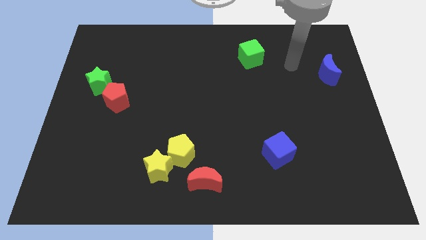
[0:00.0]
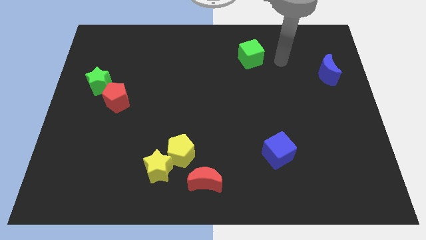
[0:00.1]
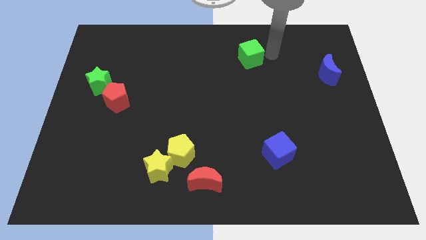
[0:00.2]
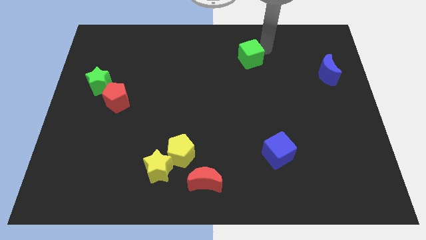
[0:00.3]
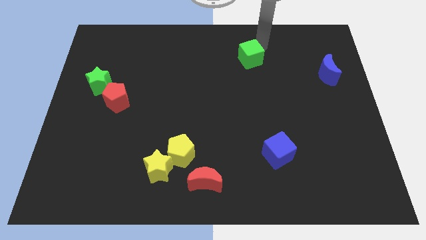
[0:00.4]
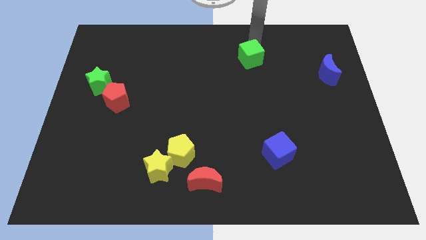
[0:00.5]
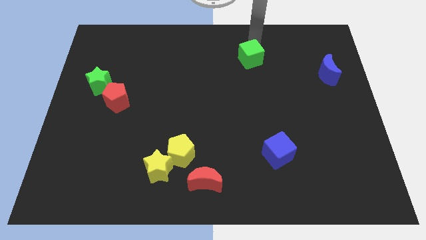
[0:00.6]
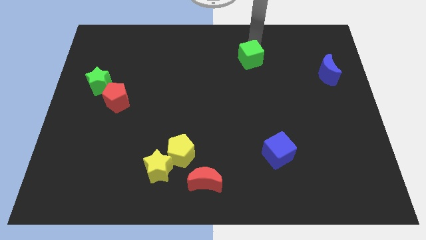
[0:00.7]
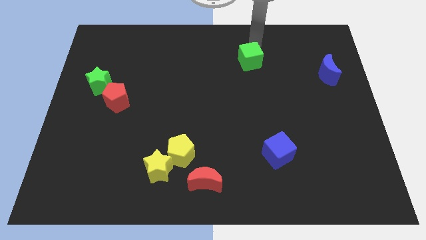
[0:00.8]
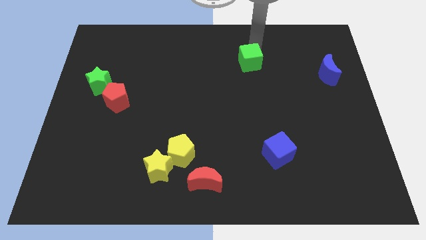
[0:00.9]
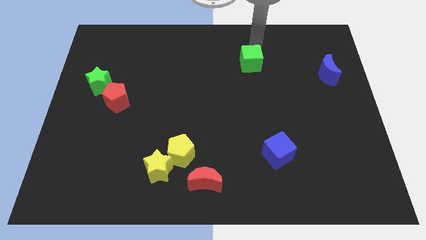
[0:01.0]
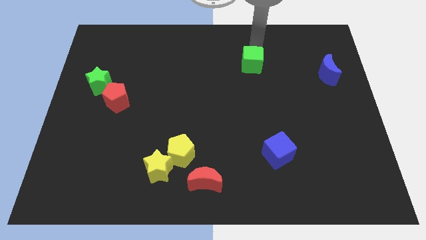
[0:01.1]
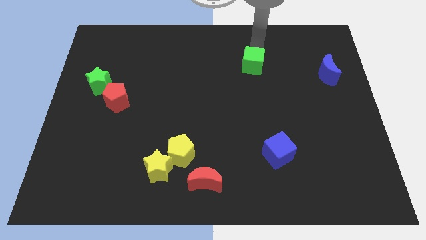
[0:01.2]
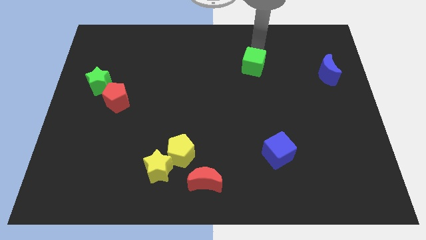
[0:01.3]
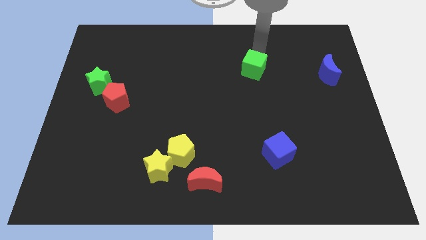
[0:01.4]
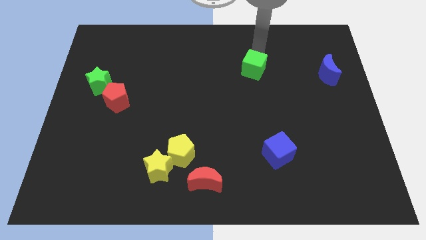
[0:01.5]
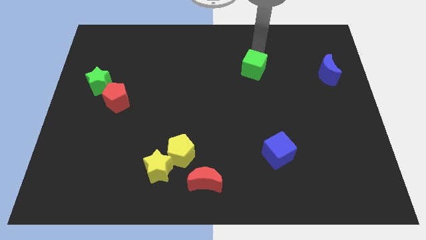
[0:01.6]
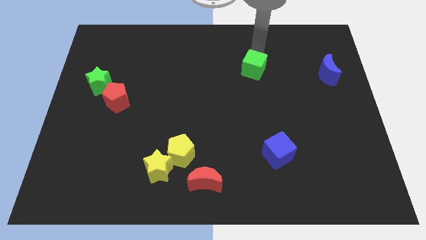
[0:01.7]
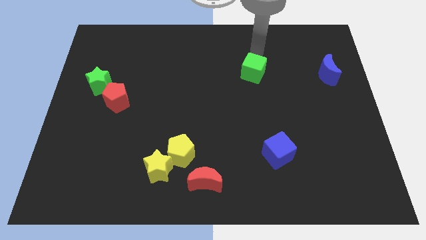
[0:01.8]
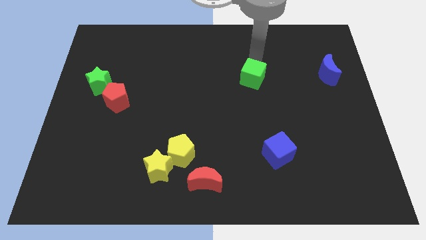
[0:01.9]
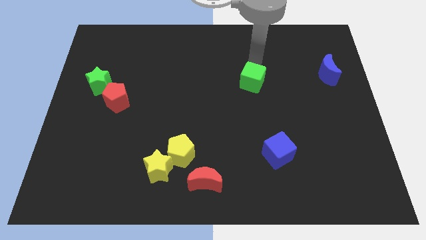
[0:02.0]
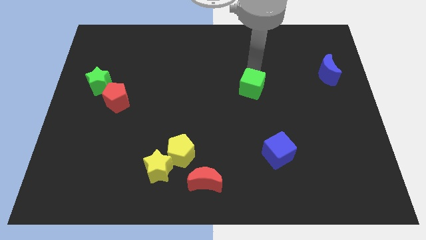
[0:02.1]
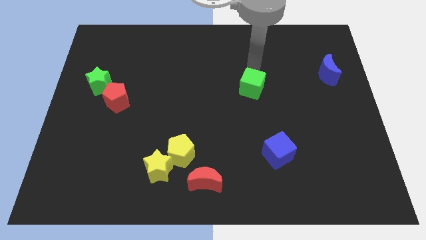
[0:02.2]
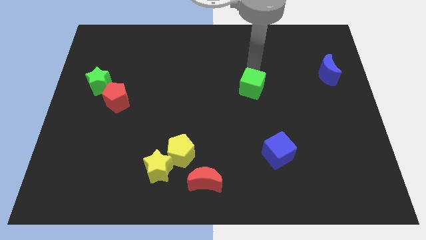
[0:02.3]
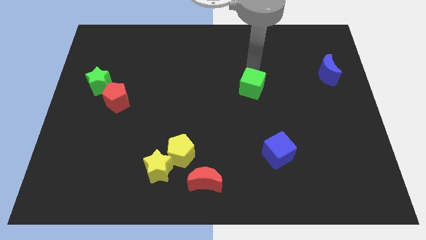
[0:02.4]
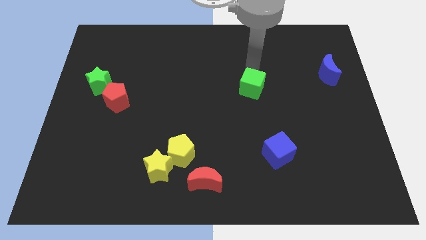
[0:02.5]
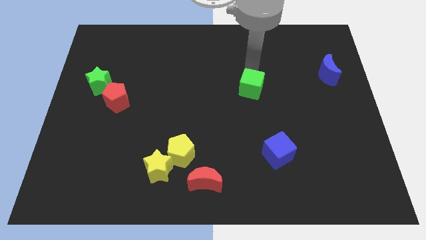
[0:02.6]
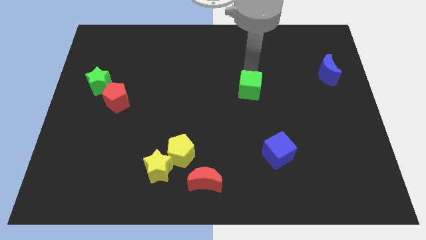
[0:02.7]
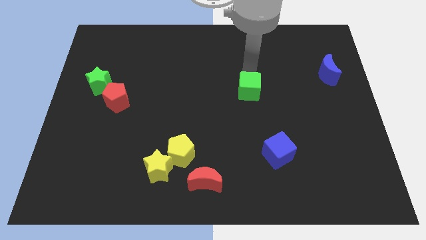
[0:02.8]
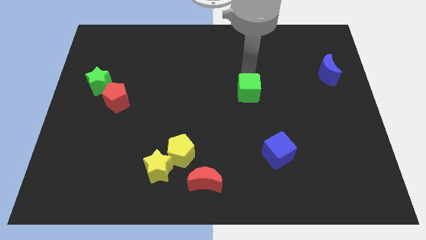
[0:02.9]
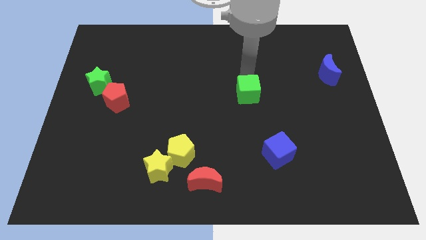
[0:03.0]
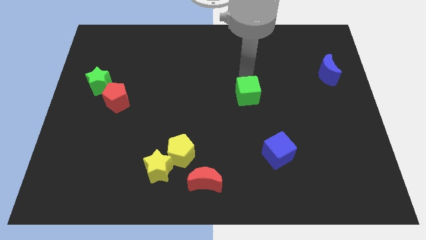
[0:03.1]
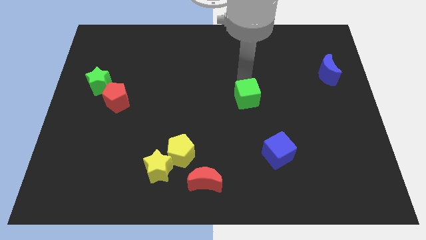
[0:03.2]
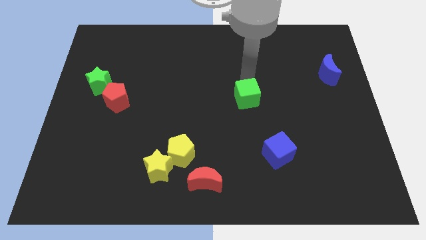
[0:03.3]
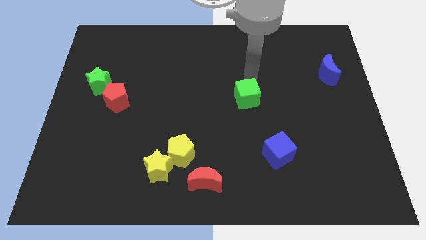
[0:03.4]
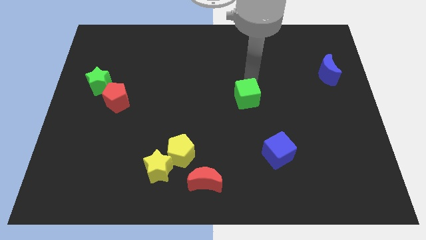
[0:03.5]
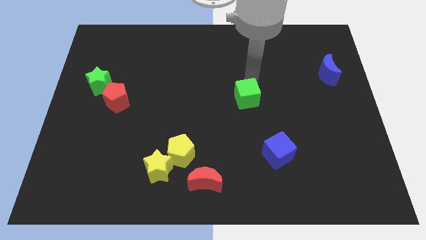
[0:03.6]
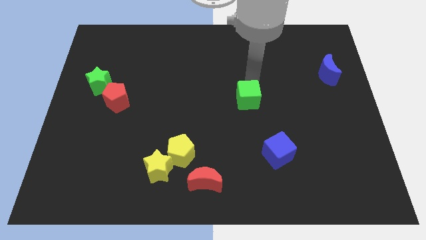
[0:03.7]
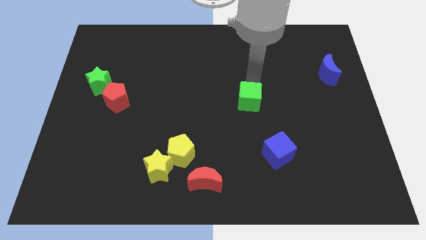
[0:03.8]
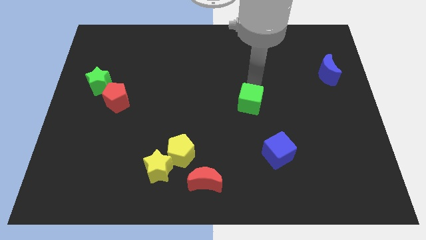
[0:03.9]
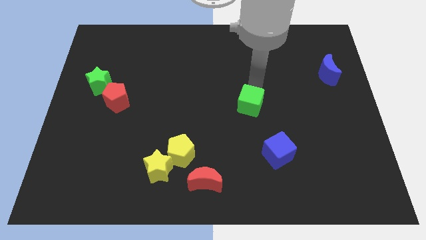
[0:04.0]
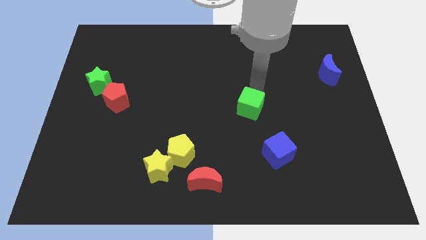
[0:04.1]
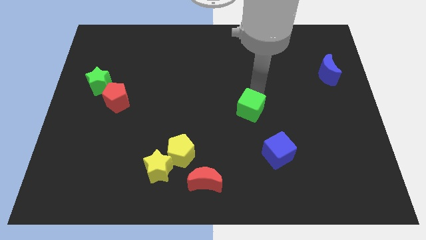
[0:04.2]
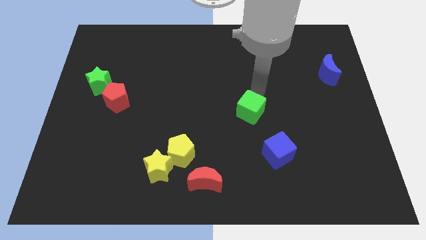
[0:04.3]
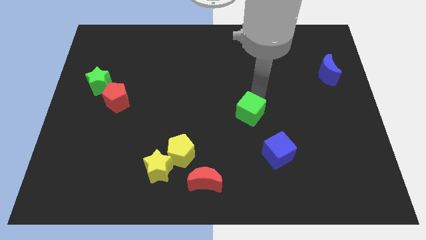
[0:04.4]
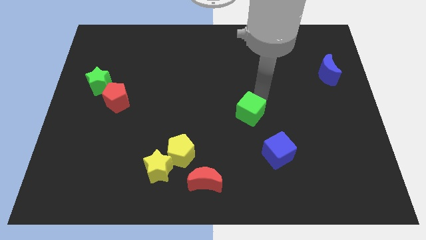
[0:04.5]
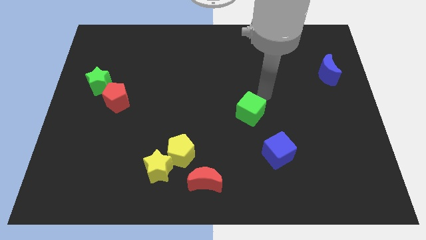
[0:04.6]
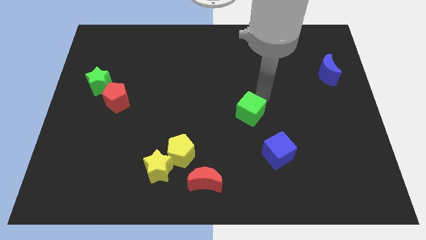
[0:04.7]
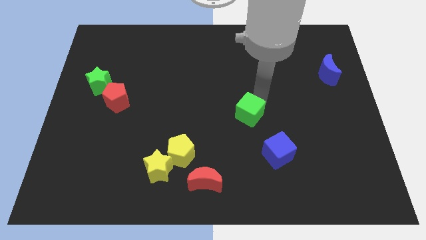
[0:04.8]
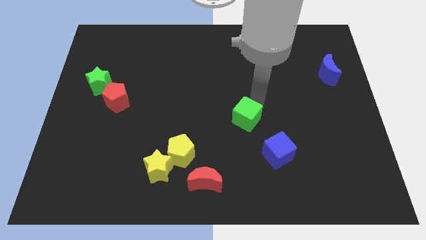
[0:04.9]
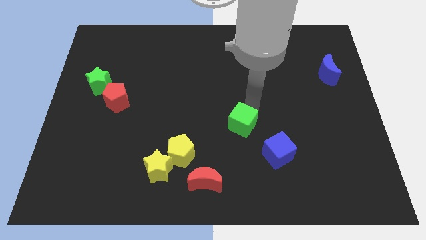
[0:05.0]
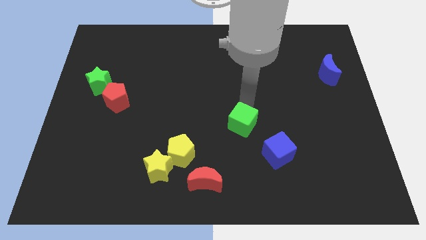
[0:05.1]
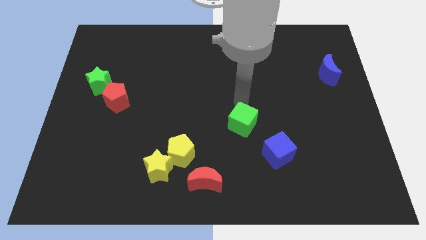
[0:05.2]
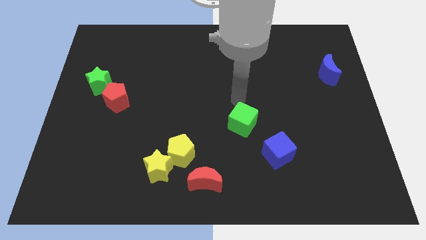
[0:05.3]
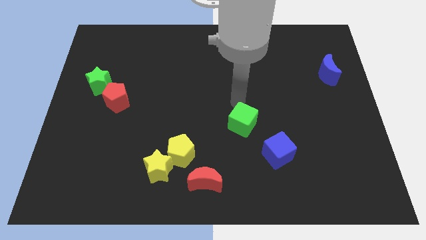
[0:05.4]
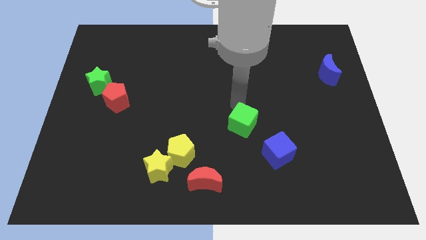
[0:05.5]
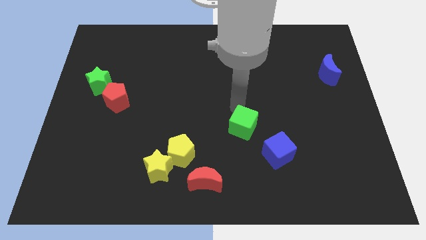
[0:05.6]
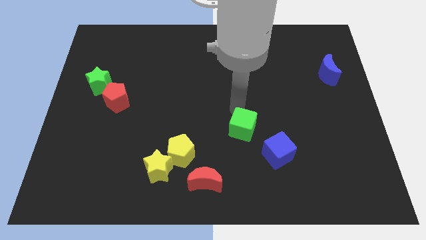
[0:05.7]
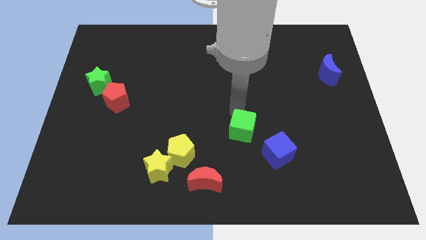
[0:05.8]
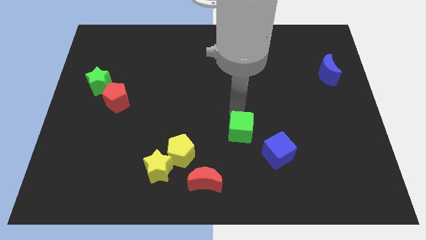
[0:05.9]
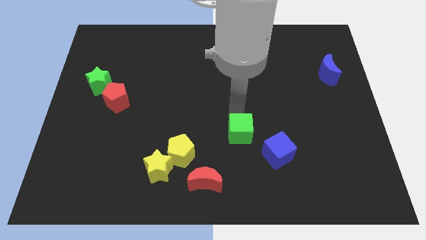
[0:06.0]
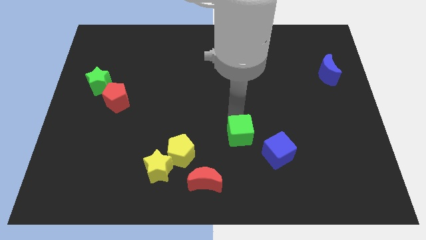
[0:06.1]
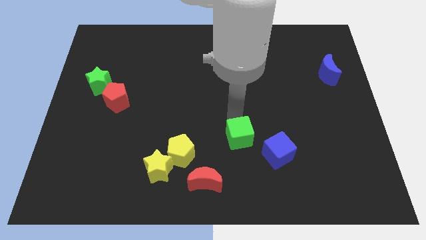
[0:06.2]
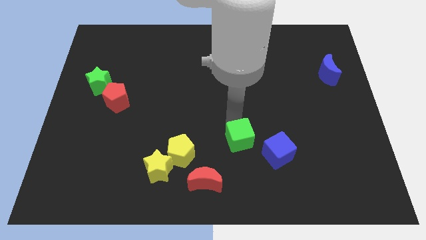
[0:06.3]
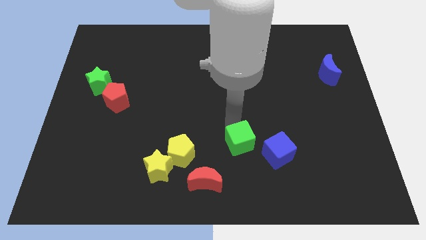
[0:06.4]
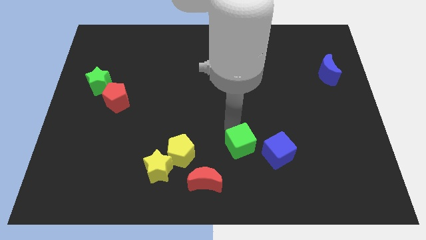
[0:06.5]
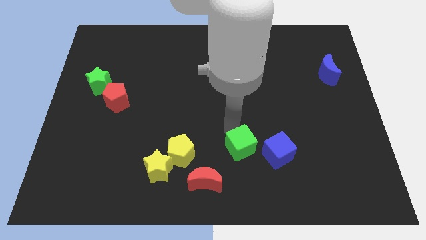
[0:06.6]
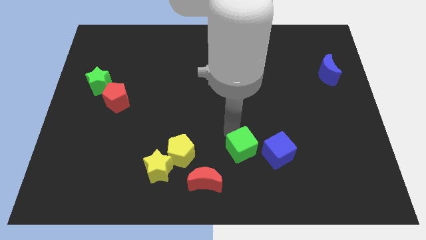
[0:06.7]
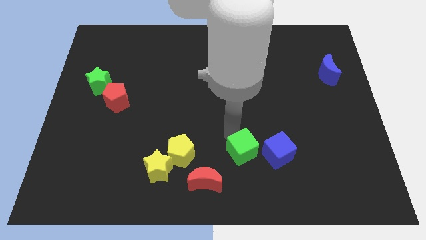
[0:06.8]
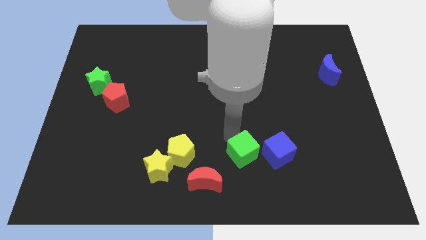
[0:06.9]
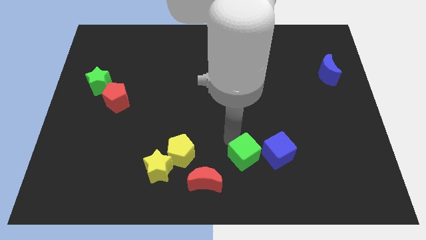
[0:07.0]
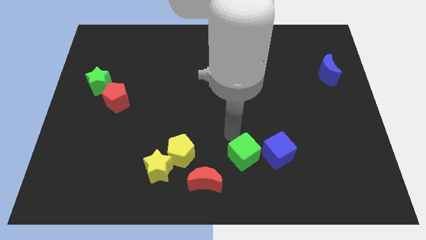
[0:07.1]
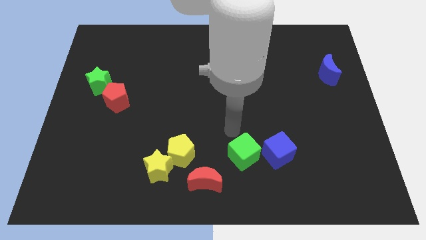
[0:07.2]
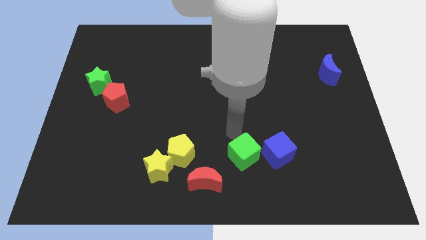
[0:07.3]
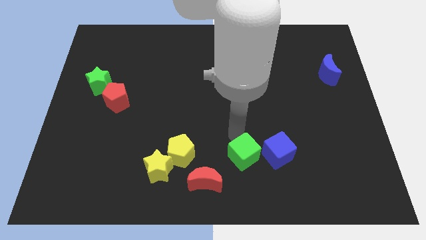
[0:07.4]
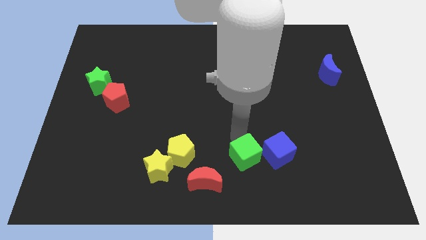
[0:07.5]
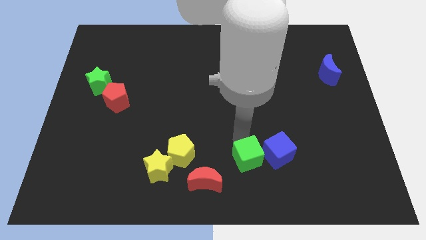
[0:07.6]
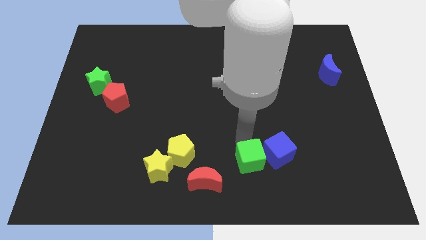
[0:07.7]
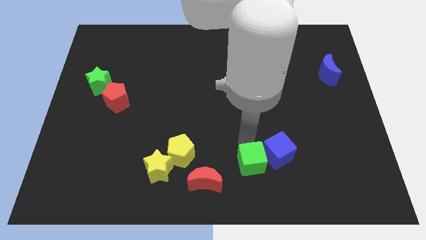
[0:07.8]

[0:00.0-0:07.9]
put the green cube right of the red moon
